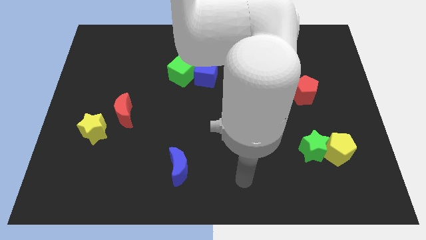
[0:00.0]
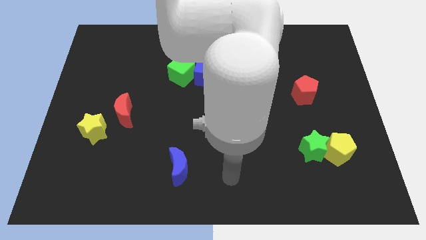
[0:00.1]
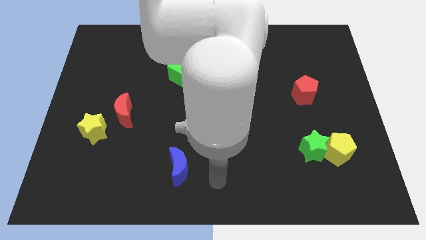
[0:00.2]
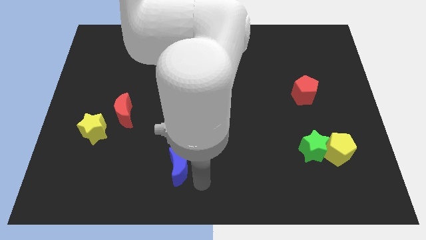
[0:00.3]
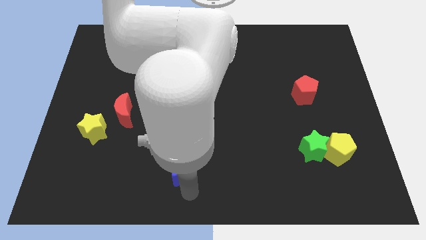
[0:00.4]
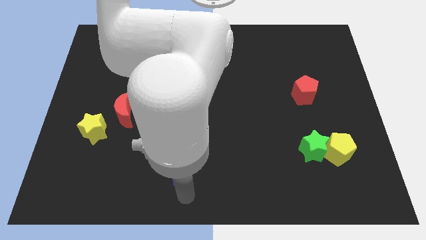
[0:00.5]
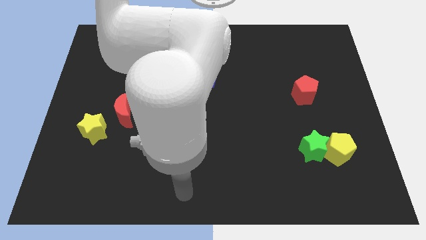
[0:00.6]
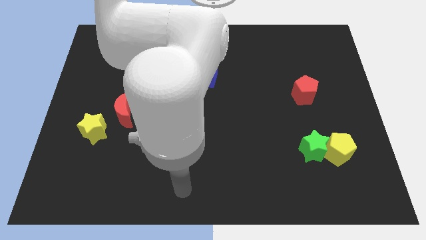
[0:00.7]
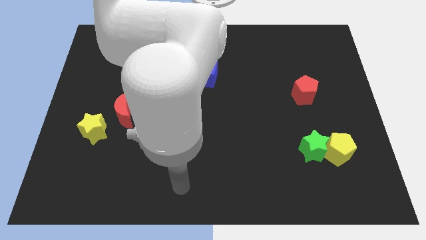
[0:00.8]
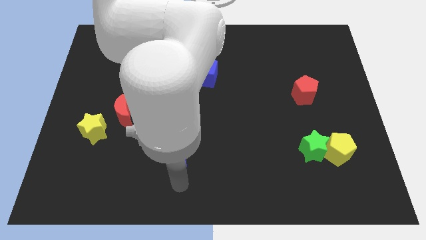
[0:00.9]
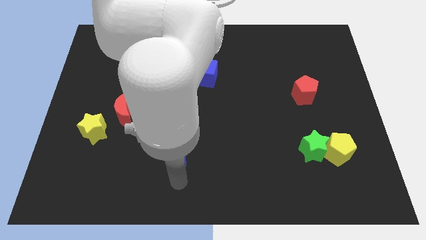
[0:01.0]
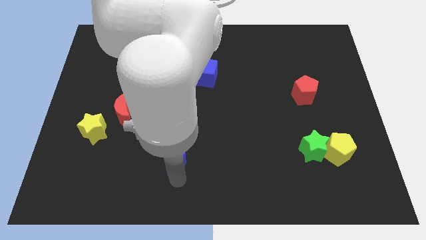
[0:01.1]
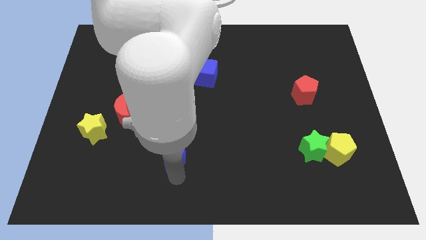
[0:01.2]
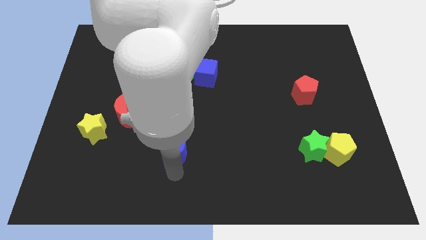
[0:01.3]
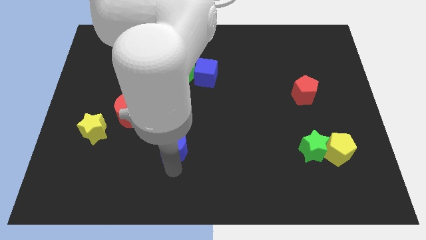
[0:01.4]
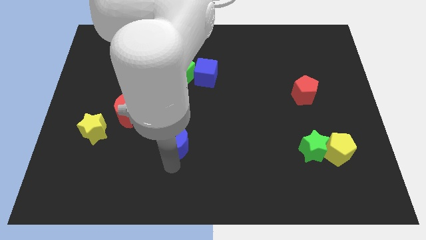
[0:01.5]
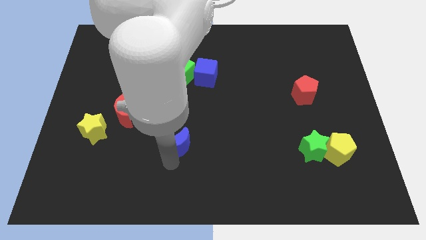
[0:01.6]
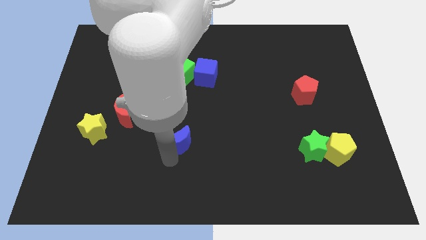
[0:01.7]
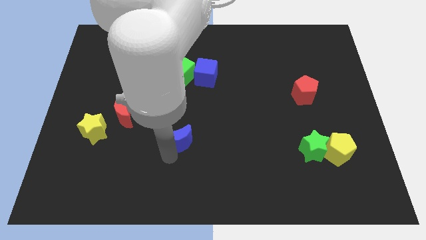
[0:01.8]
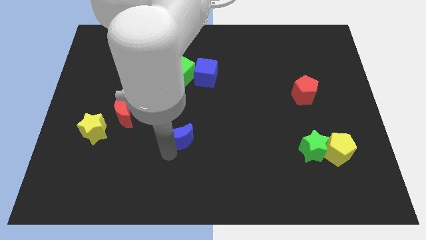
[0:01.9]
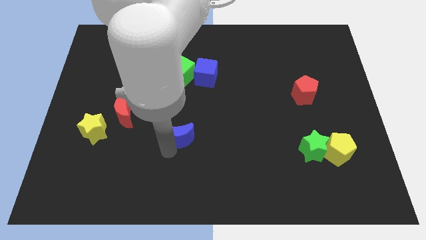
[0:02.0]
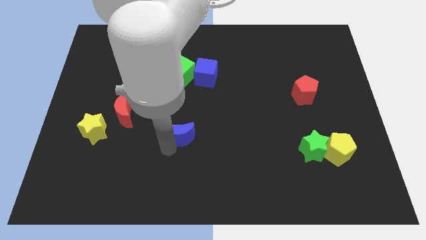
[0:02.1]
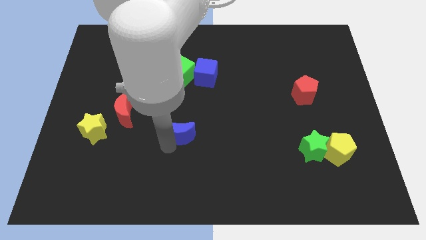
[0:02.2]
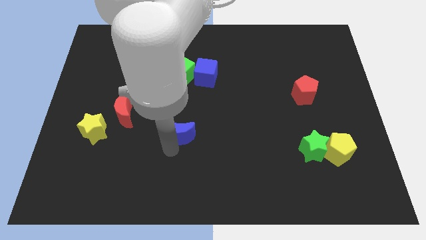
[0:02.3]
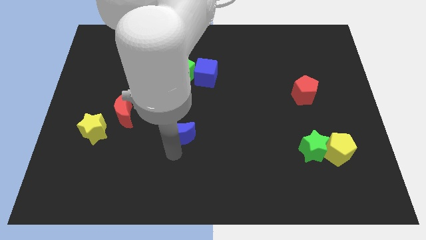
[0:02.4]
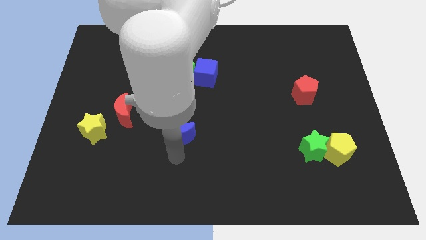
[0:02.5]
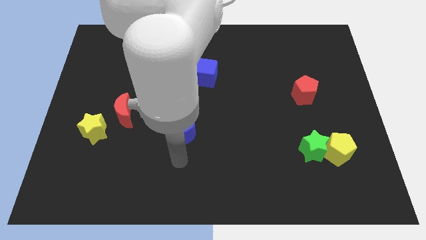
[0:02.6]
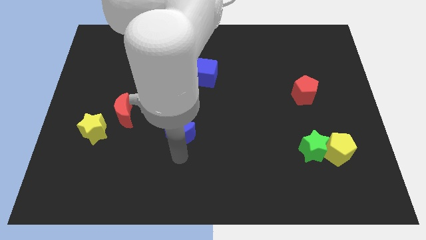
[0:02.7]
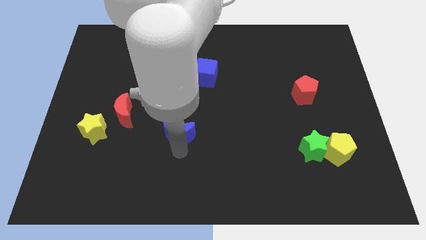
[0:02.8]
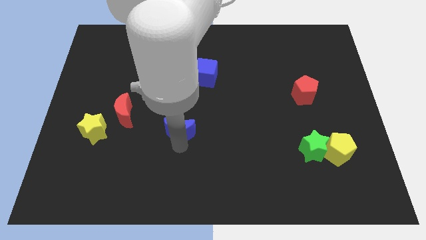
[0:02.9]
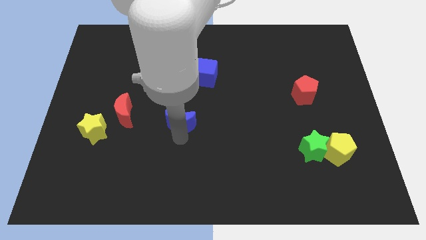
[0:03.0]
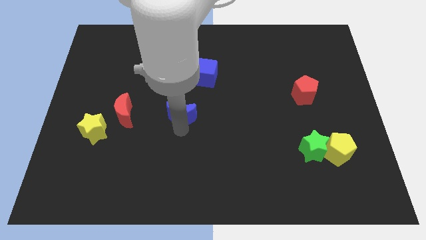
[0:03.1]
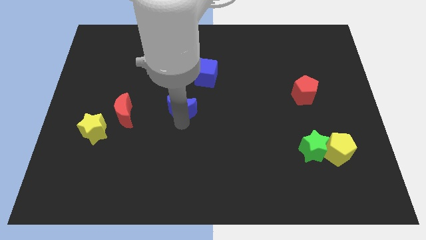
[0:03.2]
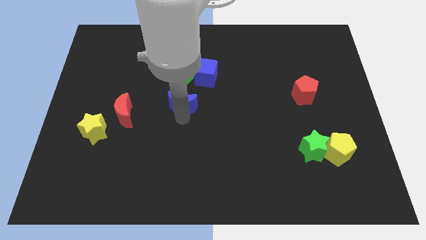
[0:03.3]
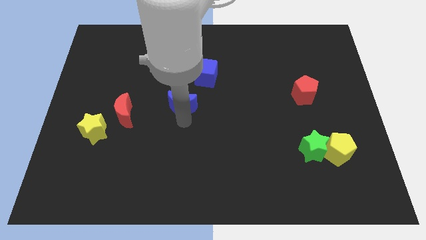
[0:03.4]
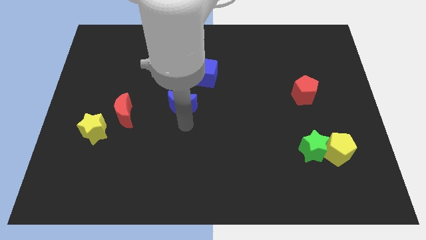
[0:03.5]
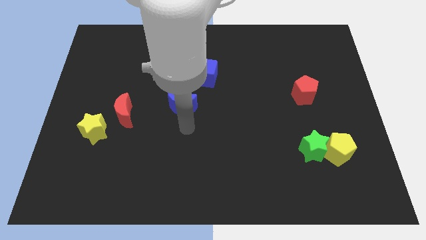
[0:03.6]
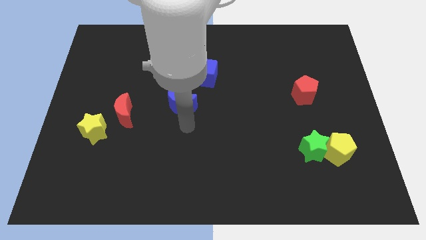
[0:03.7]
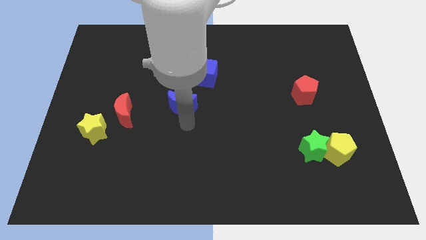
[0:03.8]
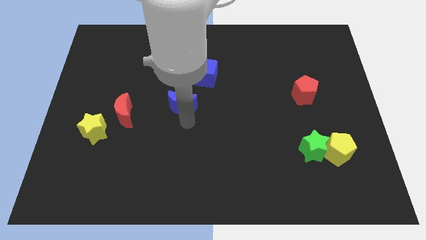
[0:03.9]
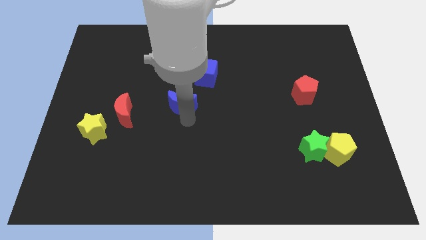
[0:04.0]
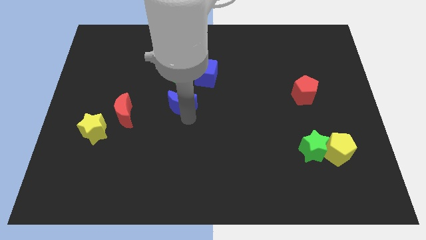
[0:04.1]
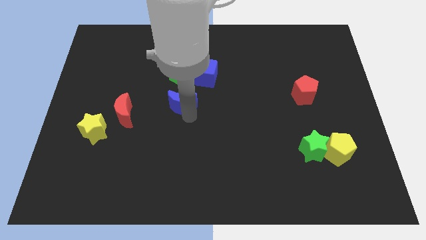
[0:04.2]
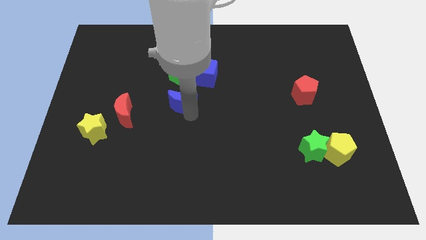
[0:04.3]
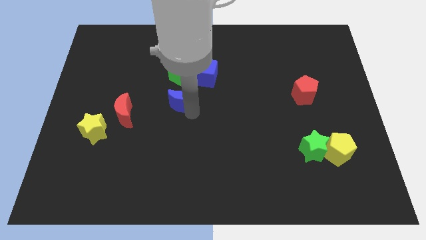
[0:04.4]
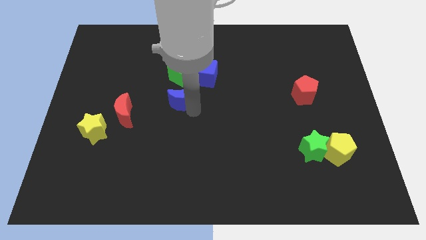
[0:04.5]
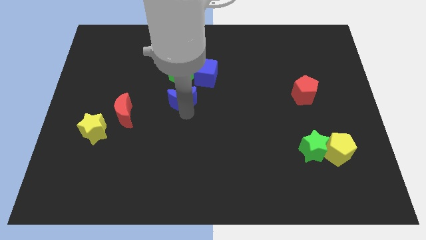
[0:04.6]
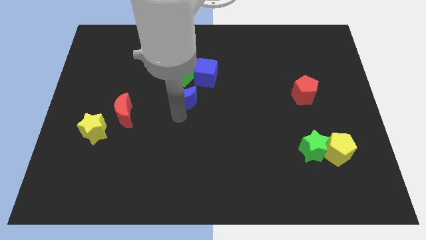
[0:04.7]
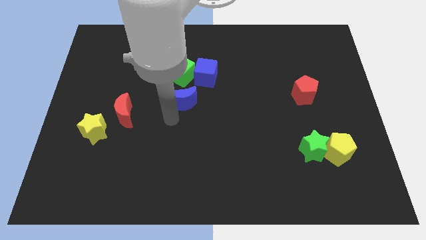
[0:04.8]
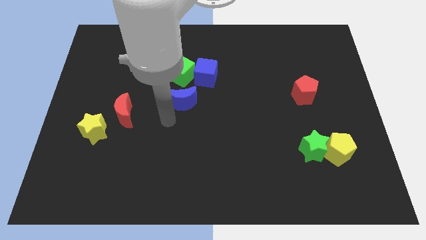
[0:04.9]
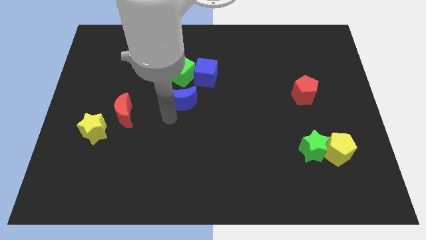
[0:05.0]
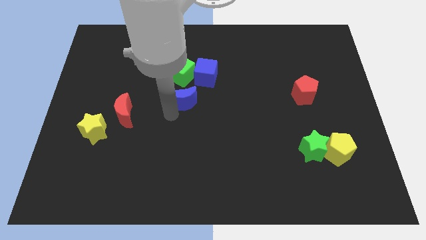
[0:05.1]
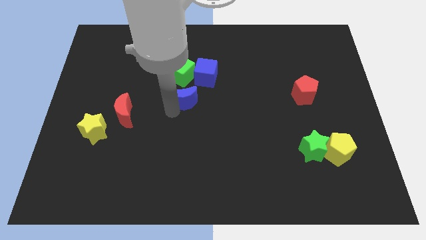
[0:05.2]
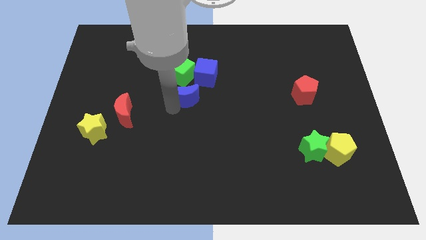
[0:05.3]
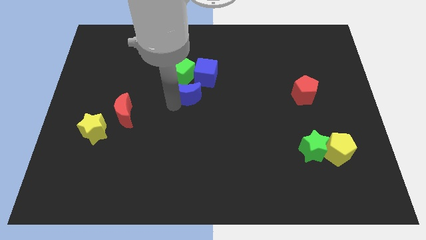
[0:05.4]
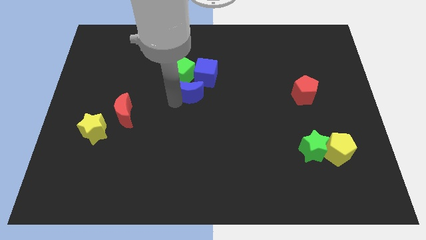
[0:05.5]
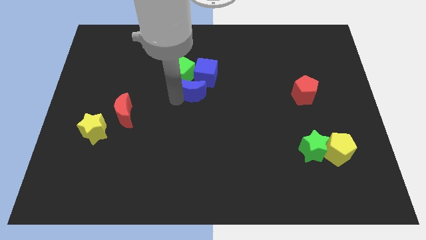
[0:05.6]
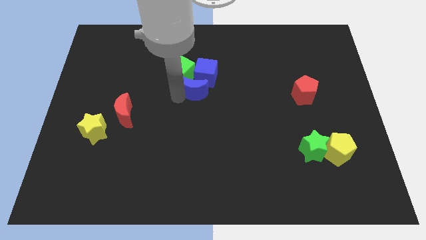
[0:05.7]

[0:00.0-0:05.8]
push the blue moon close to the blue cube

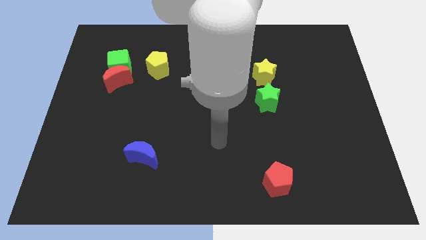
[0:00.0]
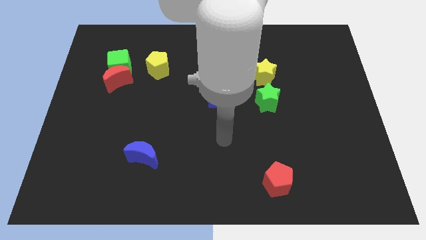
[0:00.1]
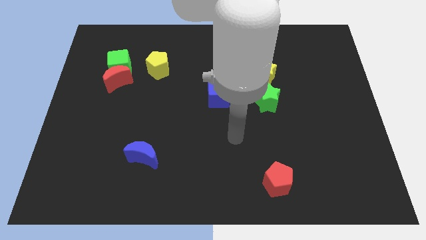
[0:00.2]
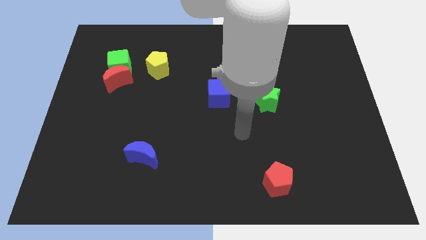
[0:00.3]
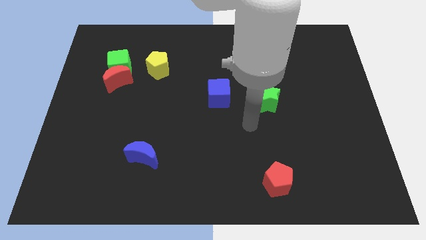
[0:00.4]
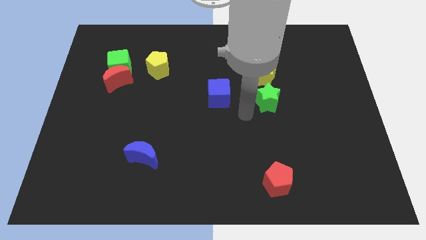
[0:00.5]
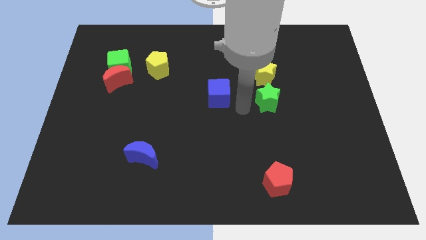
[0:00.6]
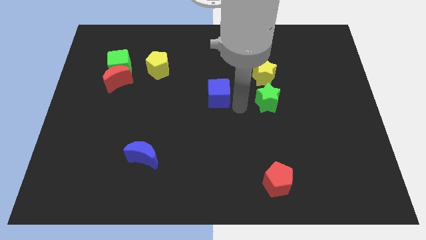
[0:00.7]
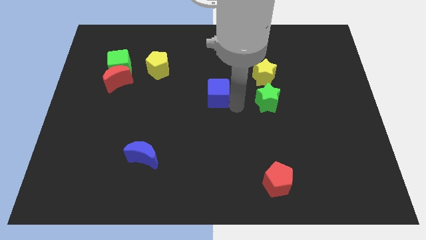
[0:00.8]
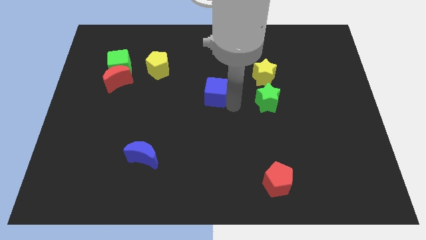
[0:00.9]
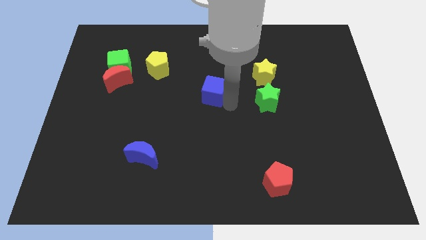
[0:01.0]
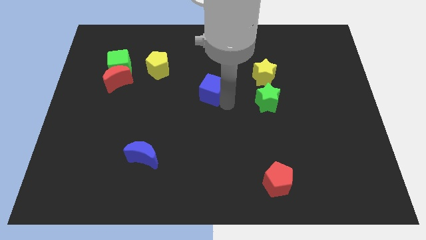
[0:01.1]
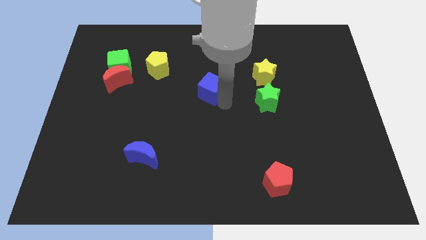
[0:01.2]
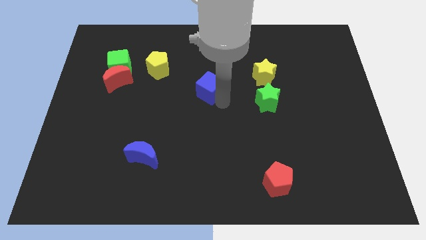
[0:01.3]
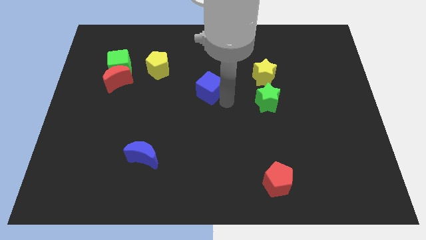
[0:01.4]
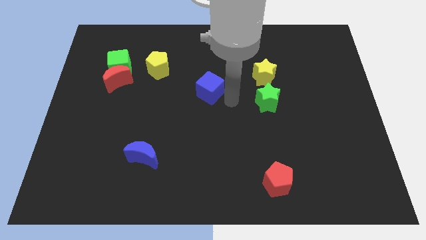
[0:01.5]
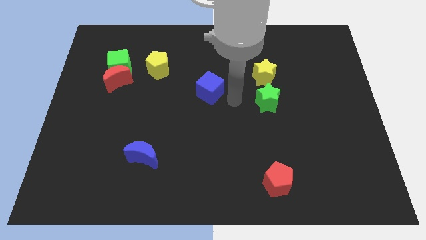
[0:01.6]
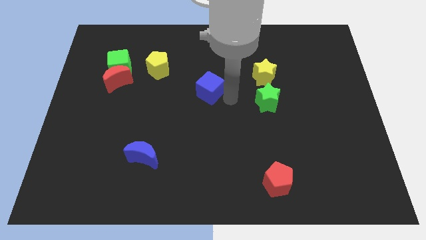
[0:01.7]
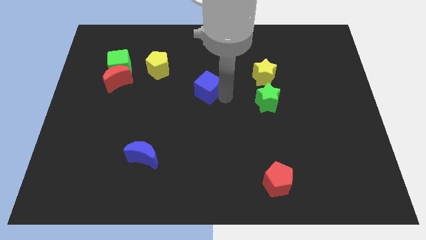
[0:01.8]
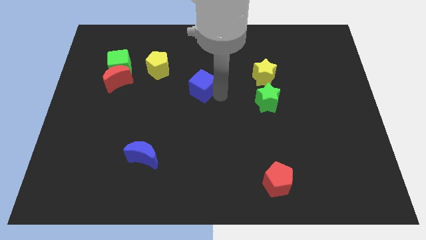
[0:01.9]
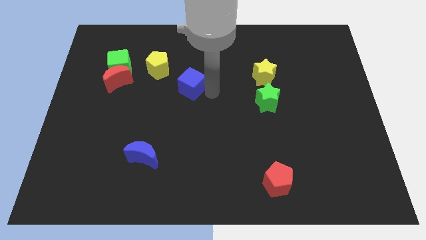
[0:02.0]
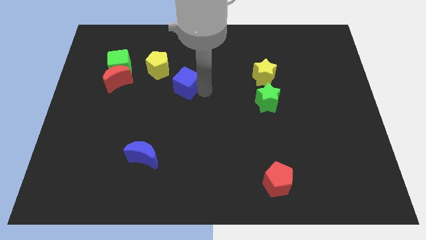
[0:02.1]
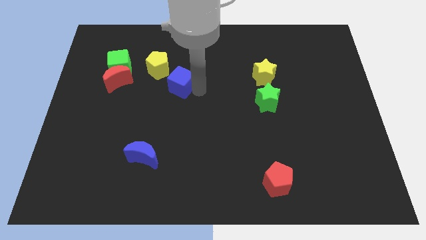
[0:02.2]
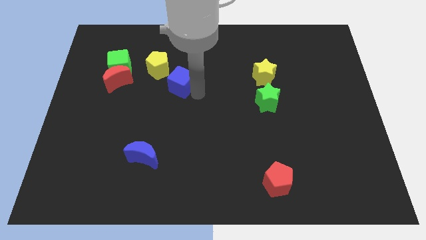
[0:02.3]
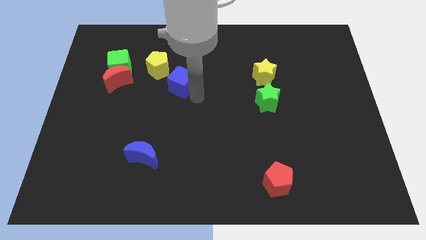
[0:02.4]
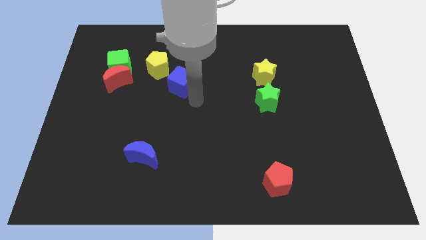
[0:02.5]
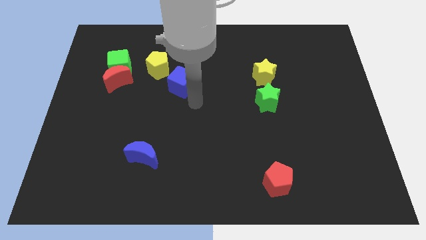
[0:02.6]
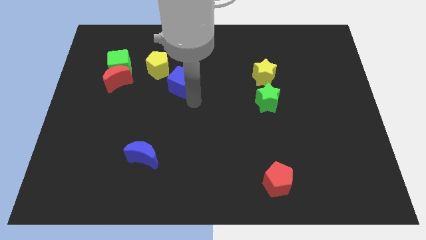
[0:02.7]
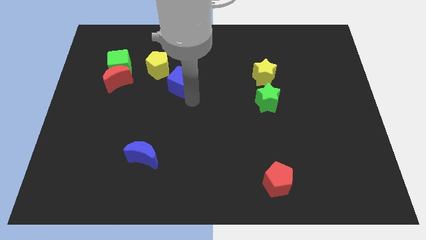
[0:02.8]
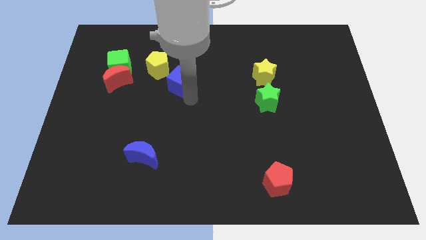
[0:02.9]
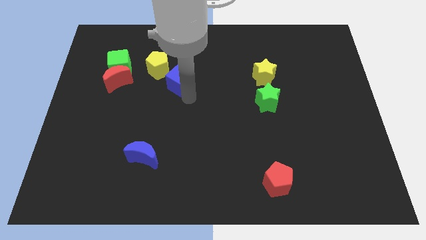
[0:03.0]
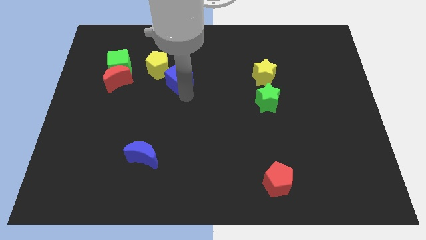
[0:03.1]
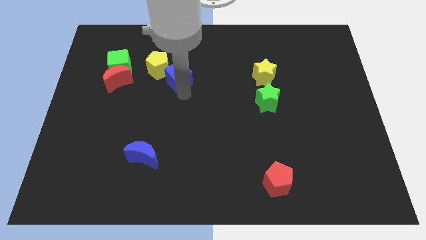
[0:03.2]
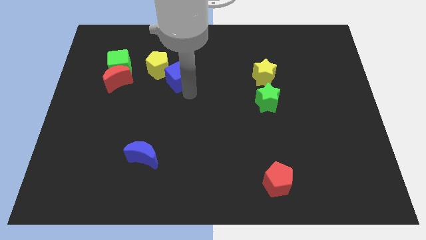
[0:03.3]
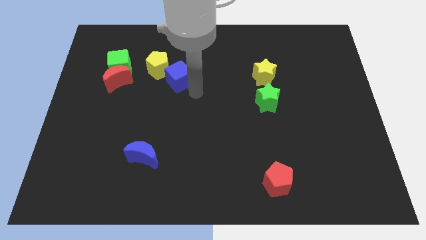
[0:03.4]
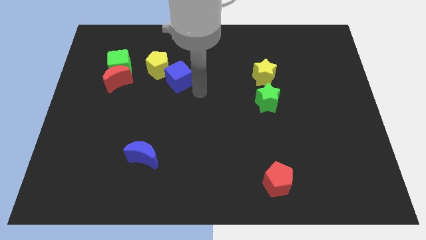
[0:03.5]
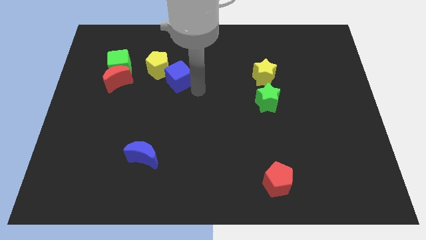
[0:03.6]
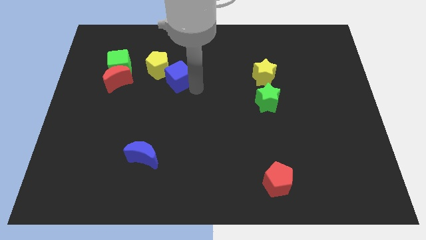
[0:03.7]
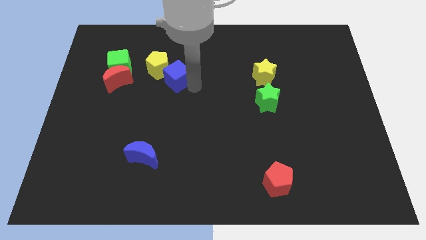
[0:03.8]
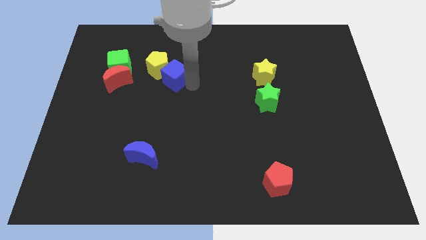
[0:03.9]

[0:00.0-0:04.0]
push the blue cube close to the yellow pentagon
